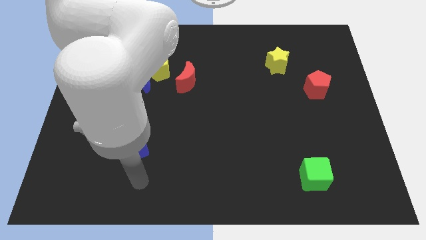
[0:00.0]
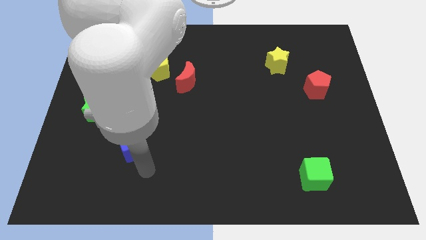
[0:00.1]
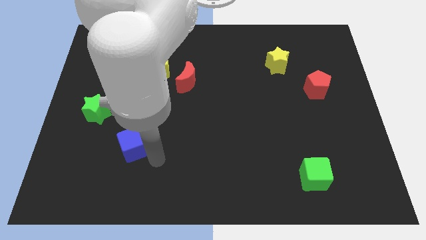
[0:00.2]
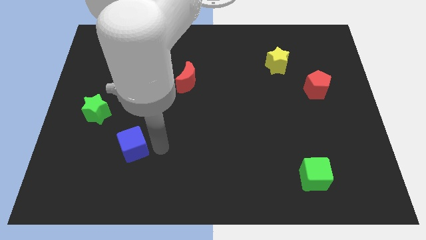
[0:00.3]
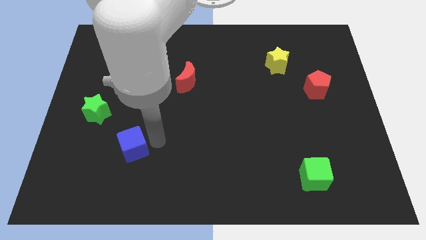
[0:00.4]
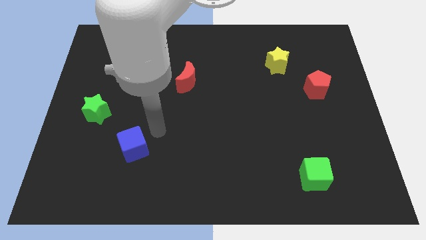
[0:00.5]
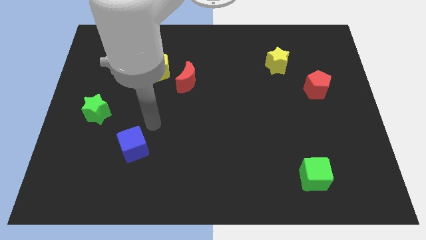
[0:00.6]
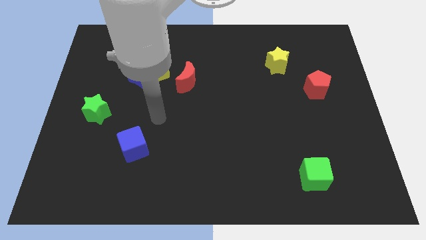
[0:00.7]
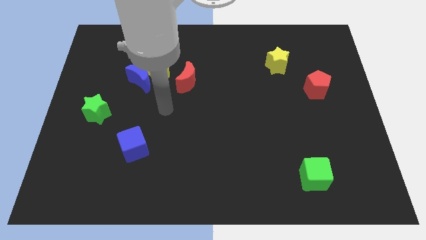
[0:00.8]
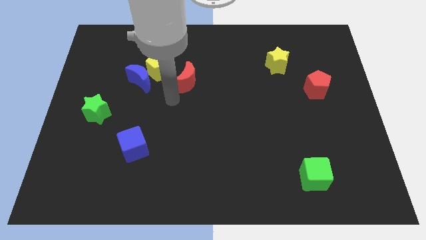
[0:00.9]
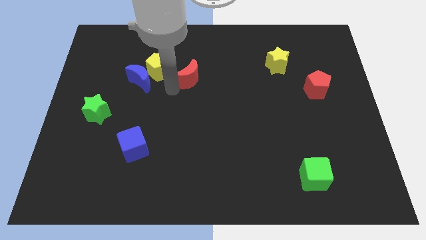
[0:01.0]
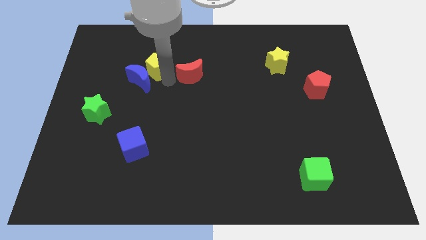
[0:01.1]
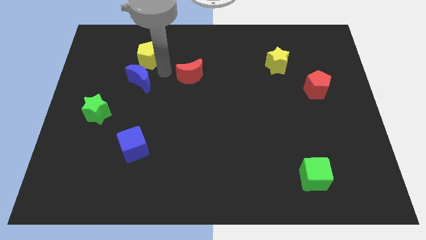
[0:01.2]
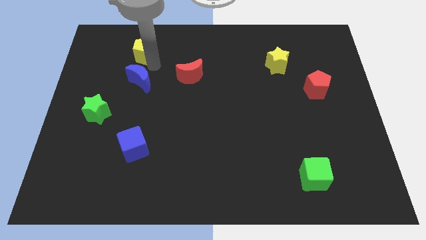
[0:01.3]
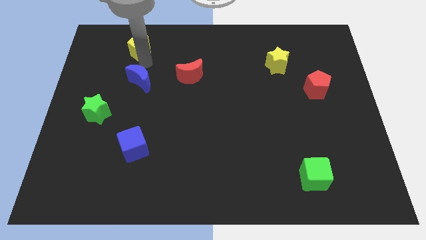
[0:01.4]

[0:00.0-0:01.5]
move the blue moon away from the yellow pentagon

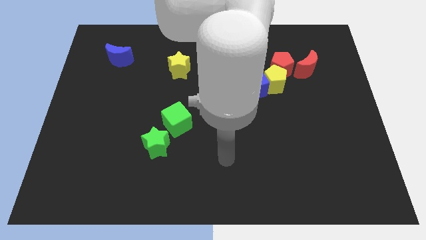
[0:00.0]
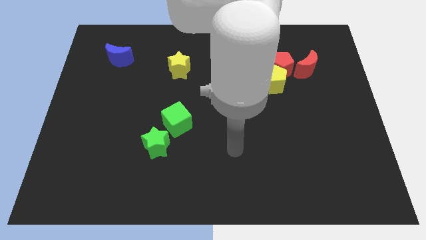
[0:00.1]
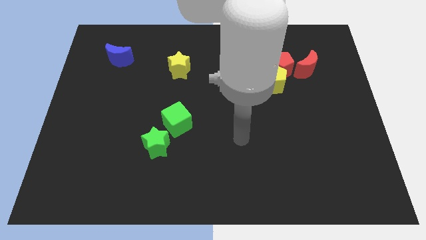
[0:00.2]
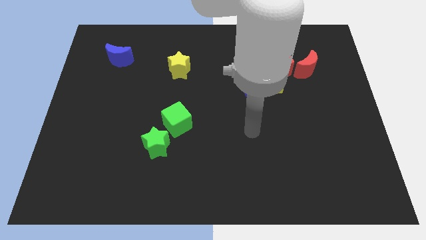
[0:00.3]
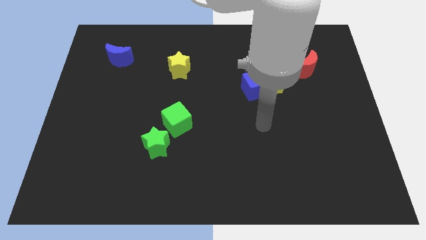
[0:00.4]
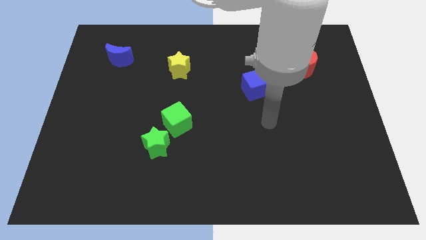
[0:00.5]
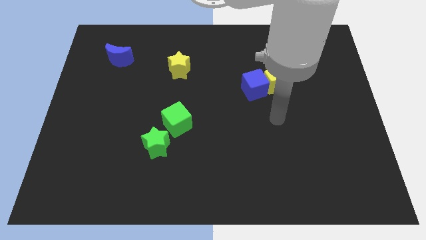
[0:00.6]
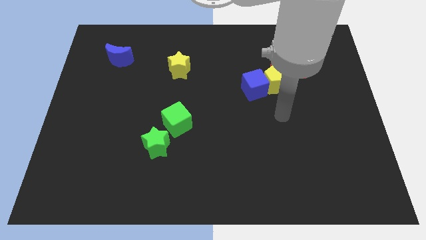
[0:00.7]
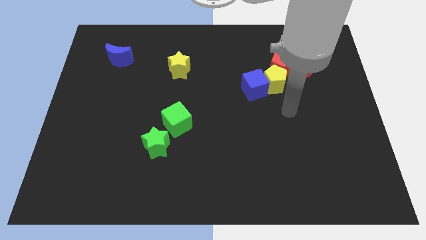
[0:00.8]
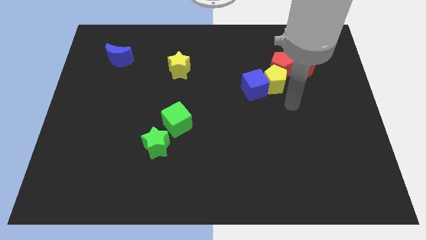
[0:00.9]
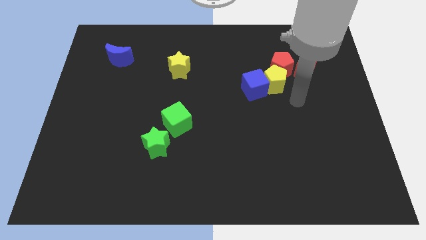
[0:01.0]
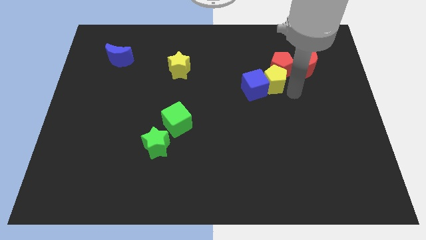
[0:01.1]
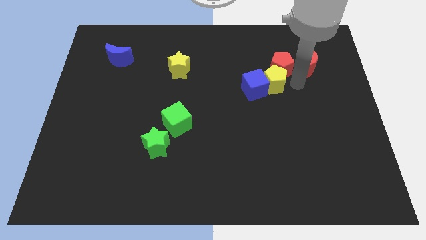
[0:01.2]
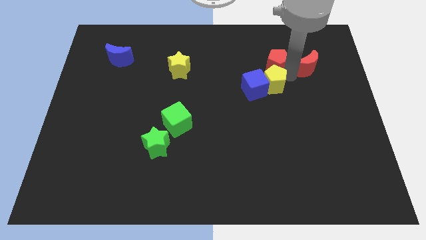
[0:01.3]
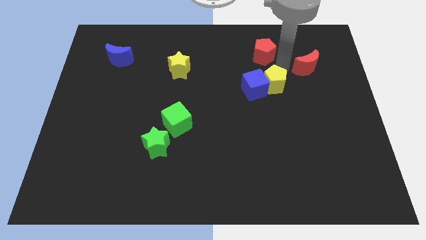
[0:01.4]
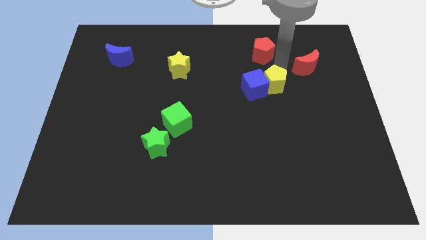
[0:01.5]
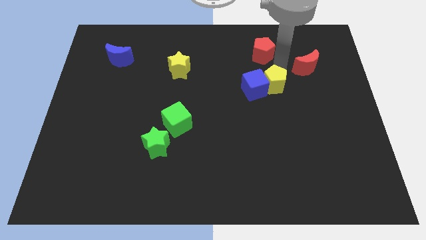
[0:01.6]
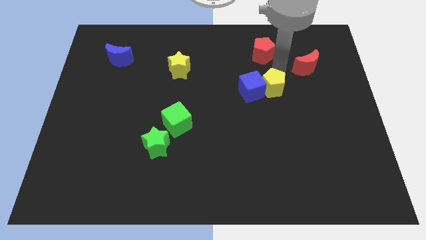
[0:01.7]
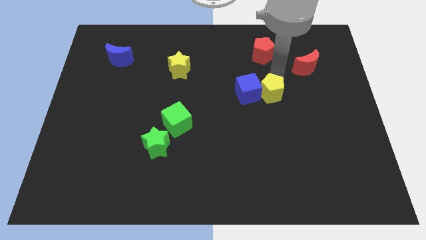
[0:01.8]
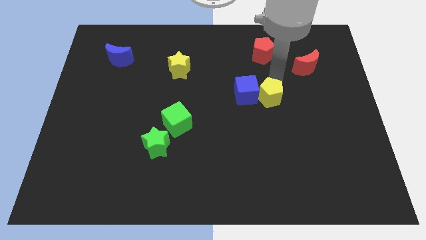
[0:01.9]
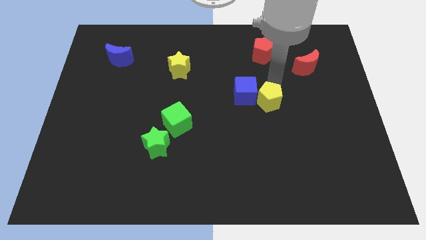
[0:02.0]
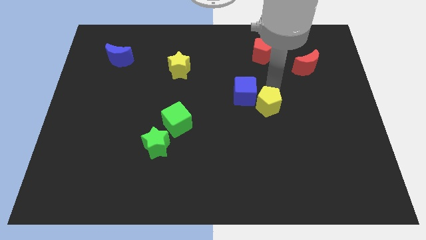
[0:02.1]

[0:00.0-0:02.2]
pull the yellow pentagon apart from the group of blocks

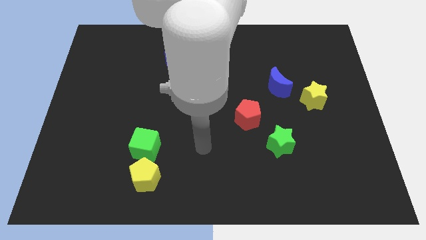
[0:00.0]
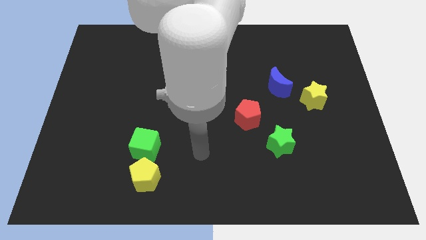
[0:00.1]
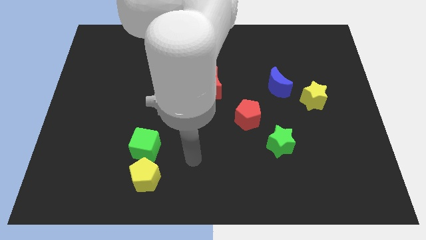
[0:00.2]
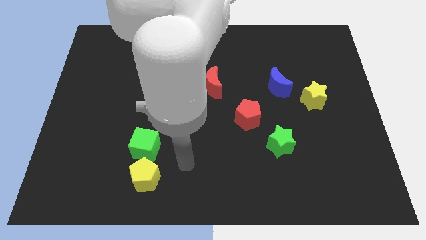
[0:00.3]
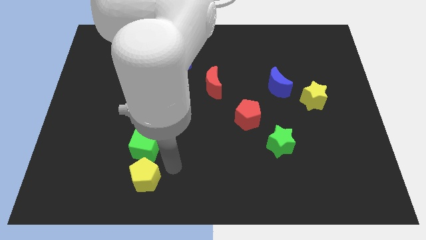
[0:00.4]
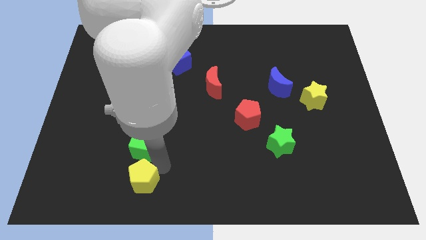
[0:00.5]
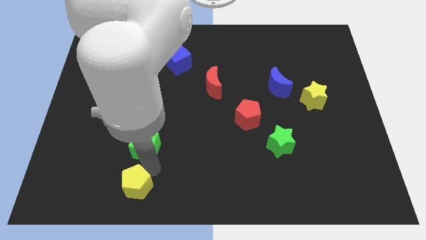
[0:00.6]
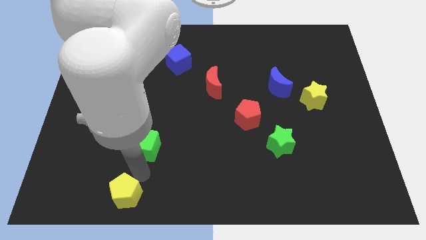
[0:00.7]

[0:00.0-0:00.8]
separate the green cube from the yellow pentagon

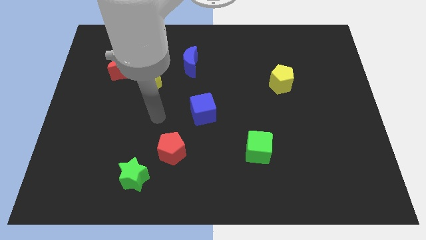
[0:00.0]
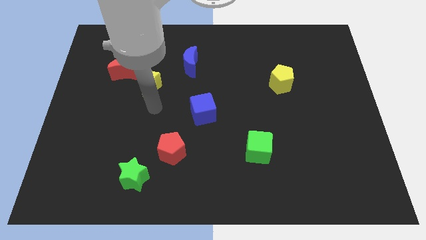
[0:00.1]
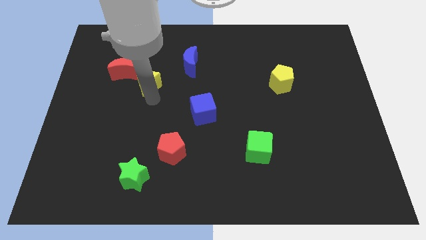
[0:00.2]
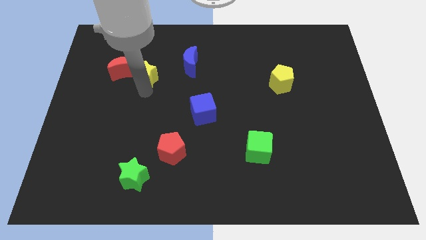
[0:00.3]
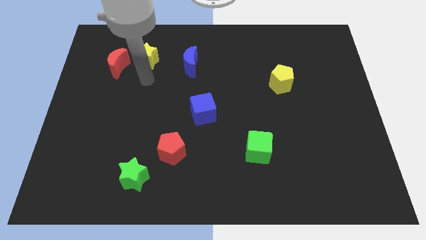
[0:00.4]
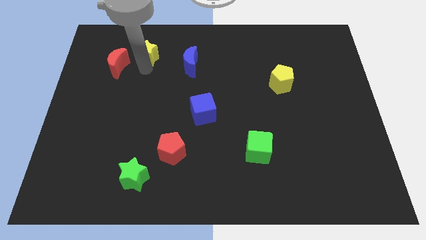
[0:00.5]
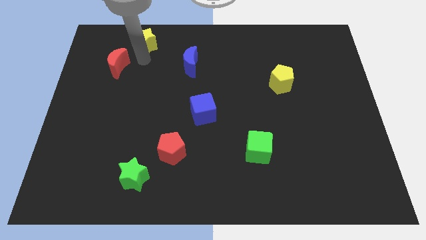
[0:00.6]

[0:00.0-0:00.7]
move the red moon away from the yellow star

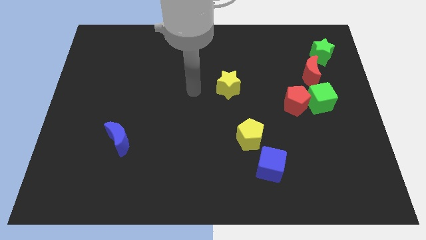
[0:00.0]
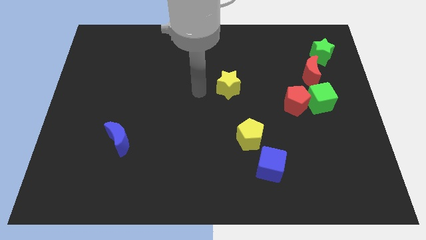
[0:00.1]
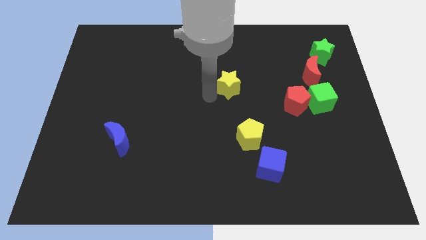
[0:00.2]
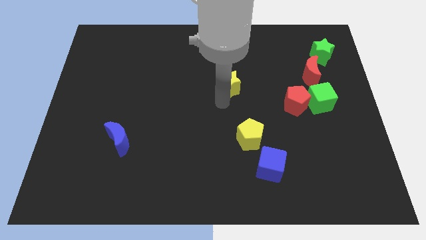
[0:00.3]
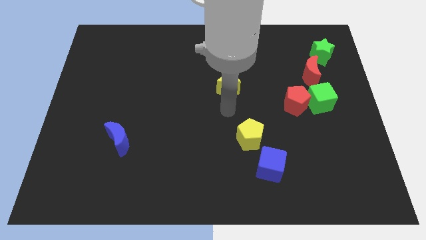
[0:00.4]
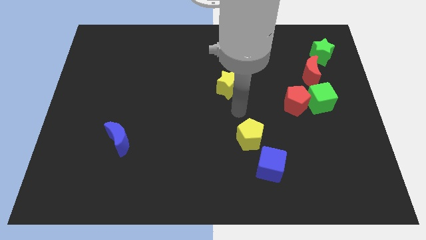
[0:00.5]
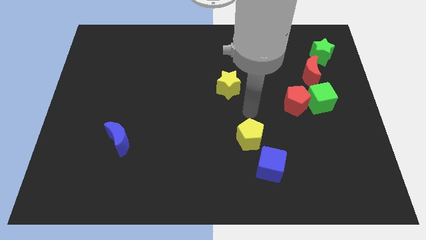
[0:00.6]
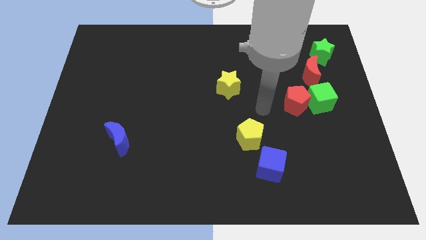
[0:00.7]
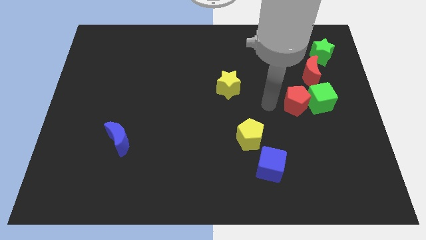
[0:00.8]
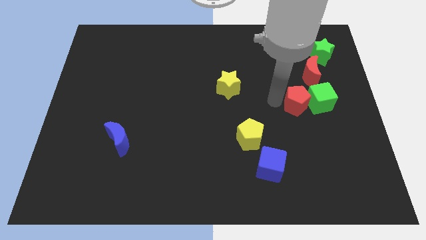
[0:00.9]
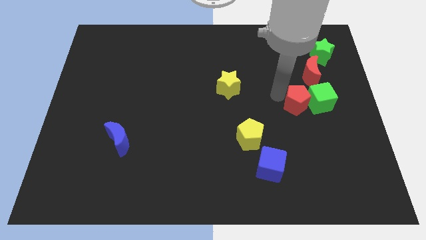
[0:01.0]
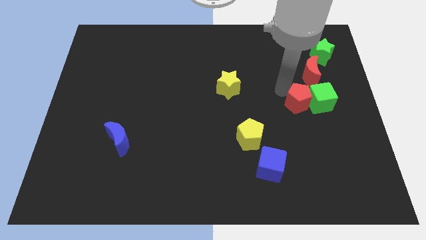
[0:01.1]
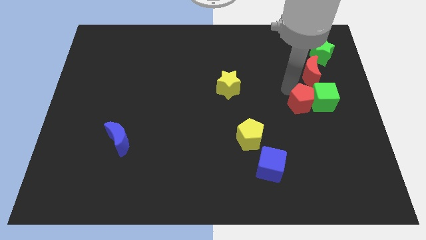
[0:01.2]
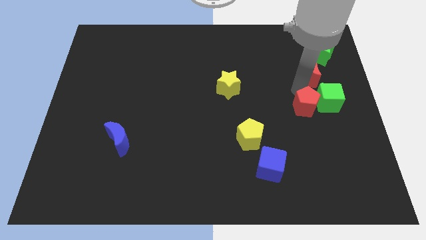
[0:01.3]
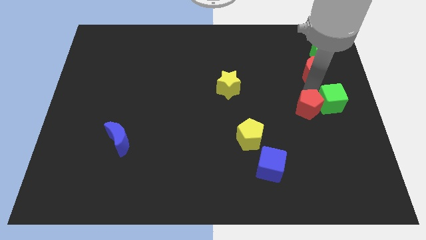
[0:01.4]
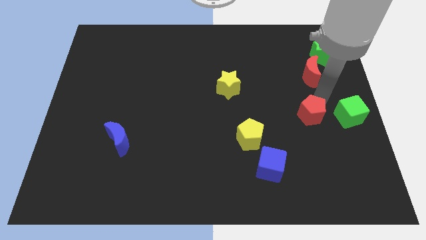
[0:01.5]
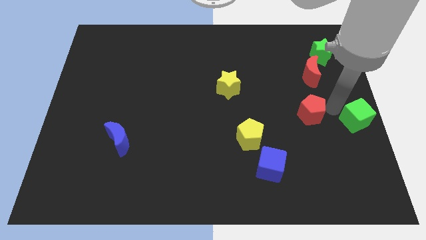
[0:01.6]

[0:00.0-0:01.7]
pull the red pentagon apart from the green cube

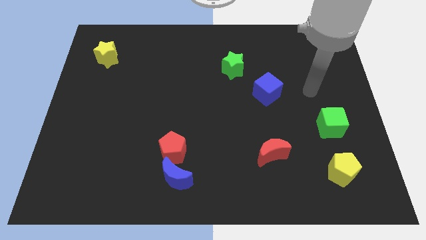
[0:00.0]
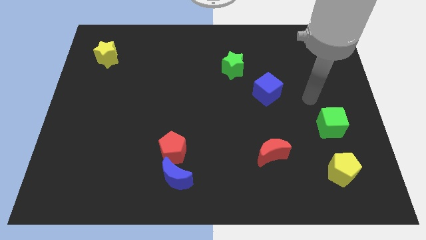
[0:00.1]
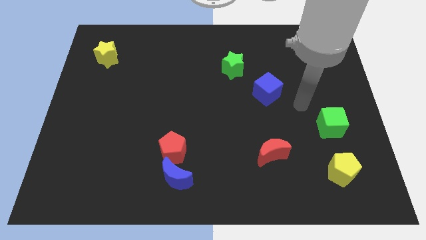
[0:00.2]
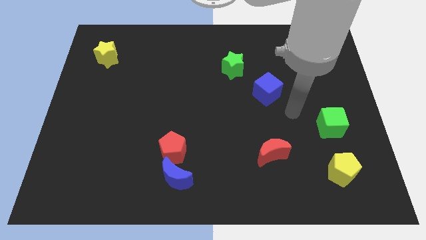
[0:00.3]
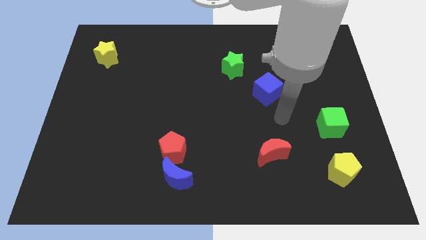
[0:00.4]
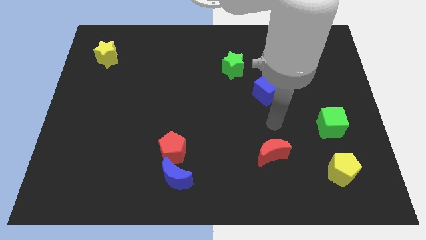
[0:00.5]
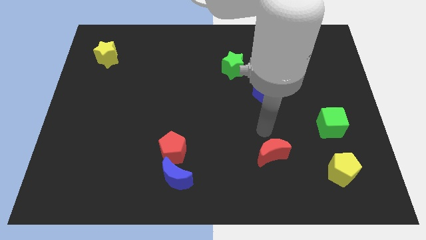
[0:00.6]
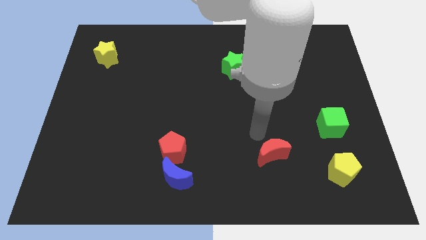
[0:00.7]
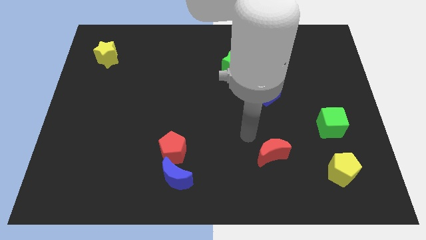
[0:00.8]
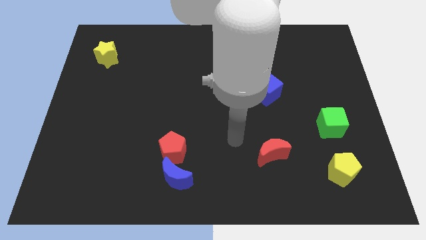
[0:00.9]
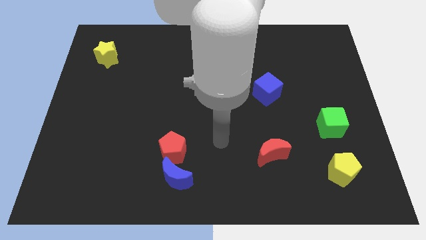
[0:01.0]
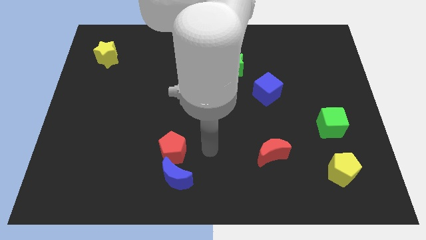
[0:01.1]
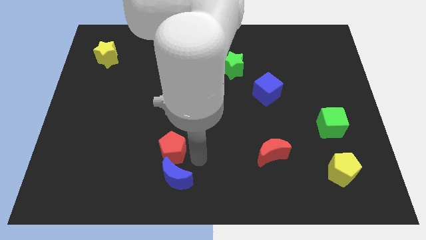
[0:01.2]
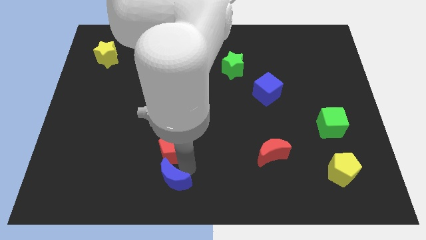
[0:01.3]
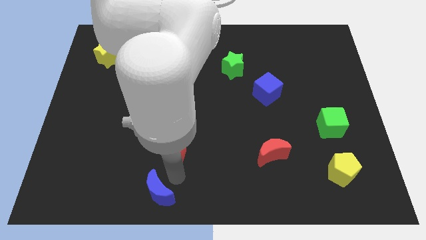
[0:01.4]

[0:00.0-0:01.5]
pull the red pentagon apart from the blue moon

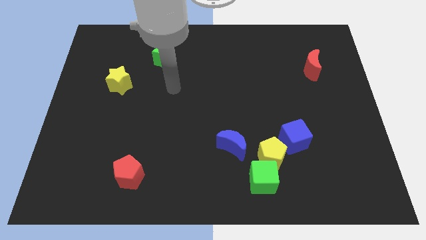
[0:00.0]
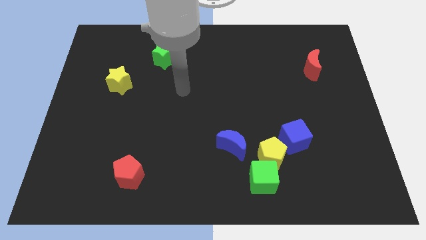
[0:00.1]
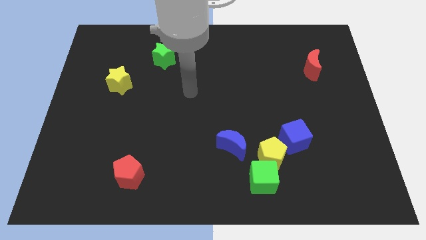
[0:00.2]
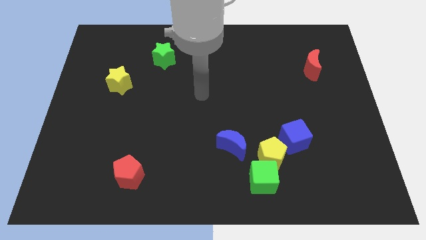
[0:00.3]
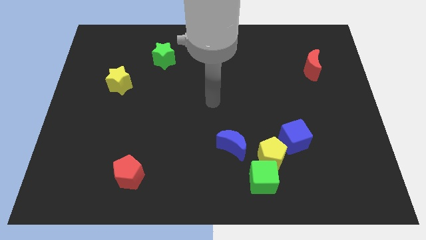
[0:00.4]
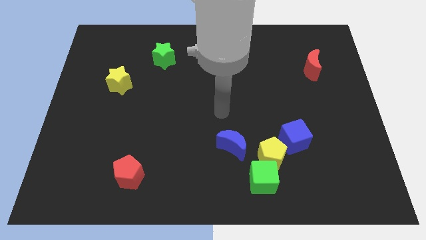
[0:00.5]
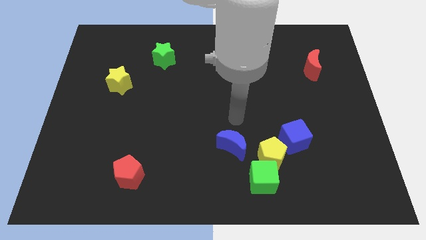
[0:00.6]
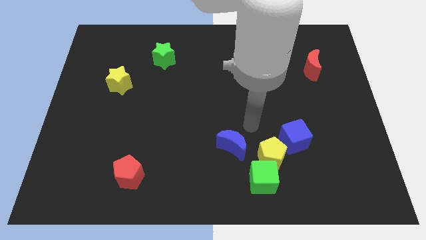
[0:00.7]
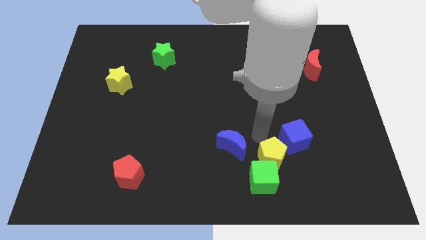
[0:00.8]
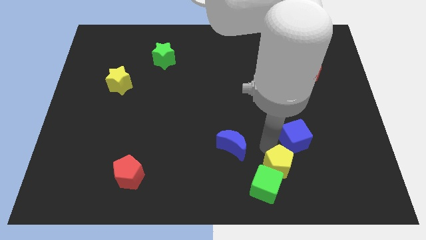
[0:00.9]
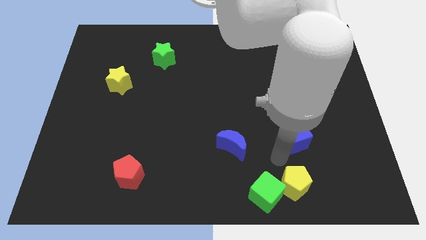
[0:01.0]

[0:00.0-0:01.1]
pull the blue cube apart from the yellow pentagon
